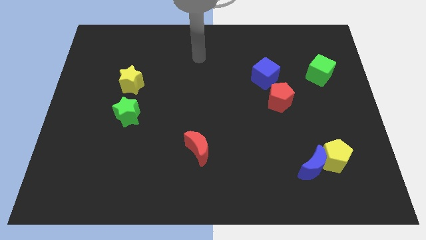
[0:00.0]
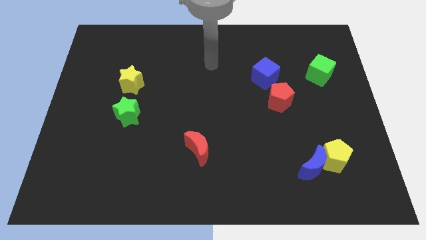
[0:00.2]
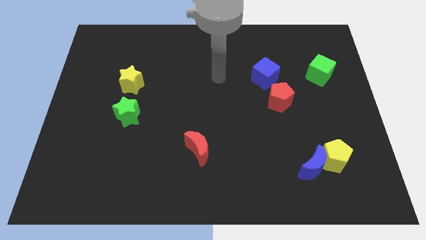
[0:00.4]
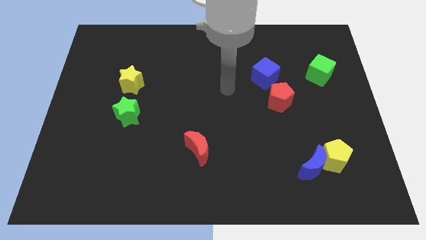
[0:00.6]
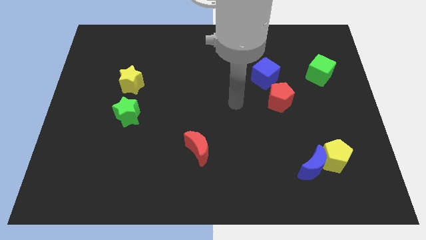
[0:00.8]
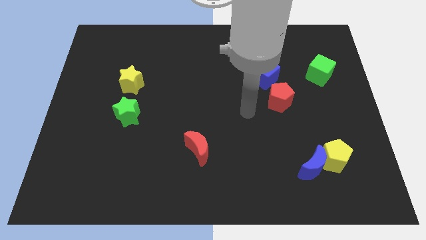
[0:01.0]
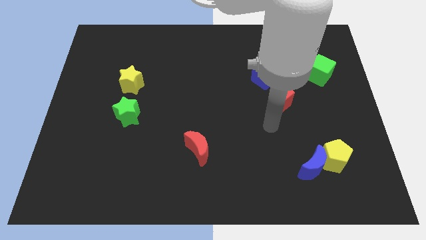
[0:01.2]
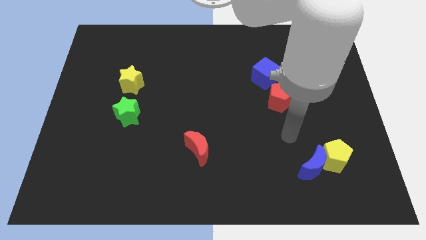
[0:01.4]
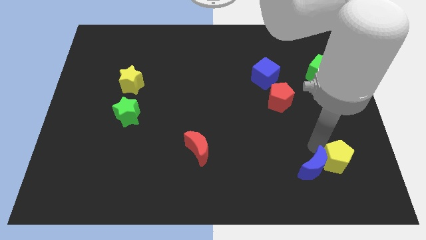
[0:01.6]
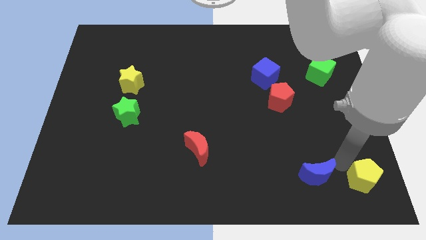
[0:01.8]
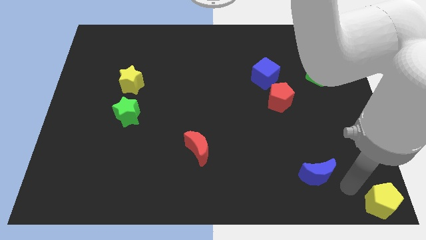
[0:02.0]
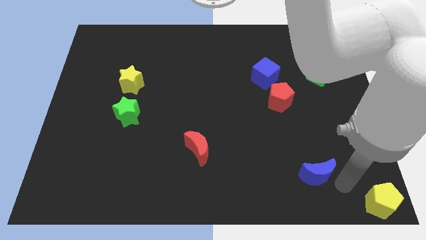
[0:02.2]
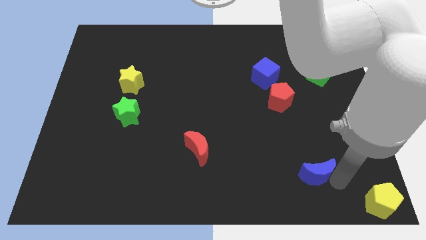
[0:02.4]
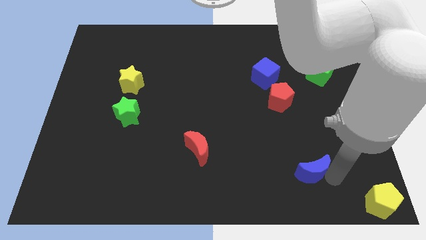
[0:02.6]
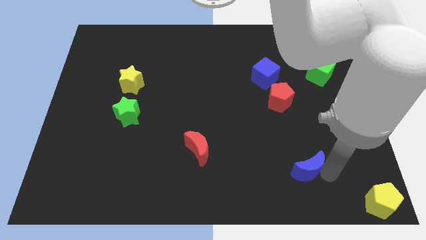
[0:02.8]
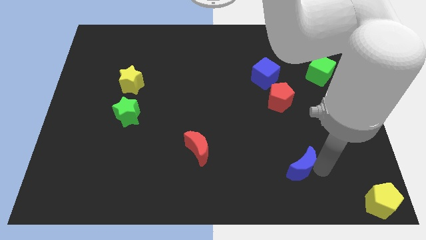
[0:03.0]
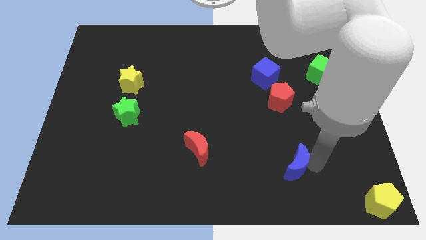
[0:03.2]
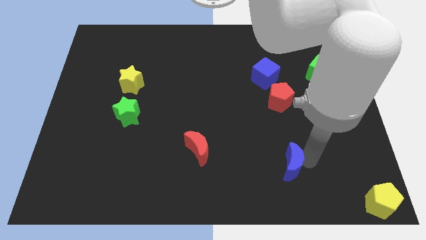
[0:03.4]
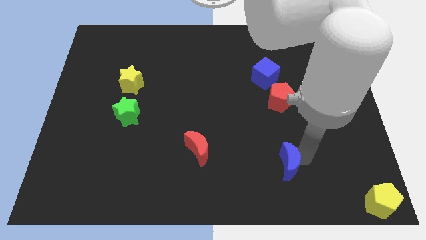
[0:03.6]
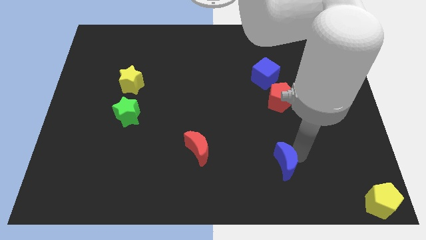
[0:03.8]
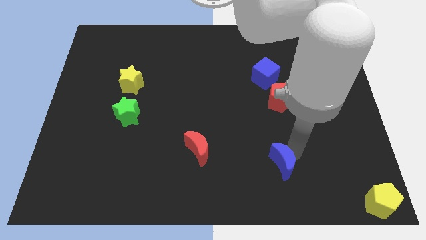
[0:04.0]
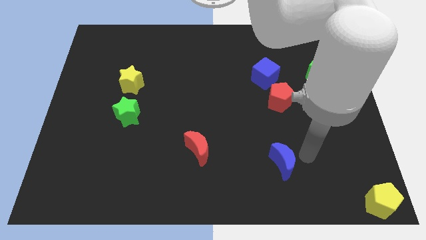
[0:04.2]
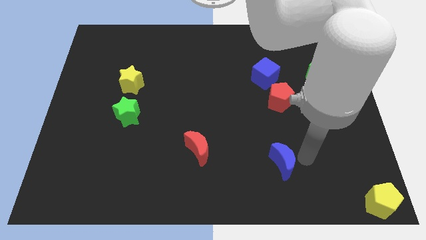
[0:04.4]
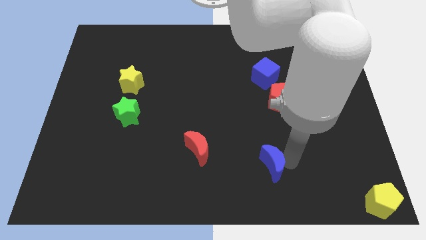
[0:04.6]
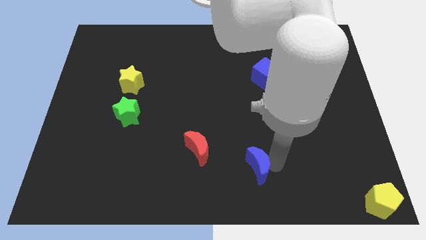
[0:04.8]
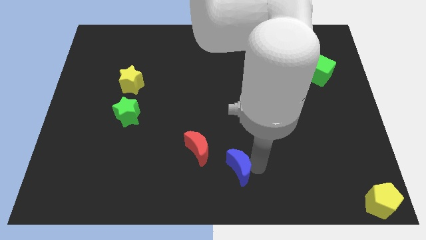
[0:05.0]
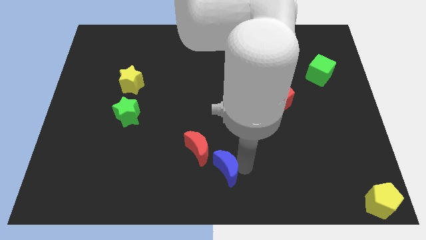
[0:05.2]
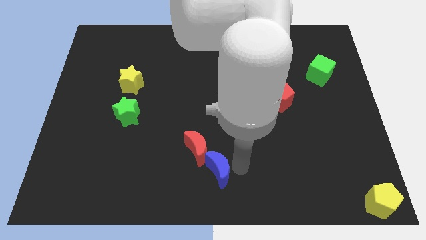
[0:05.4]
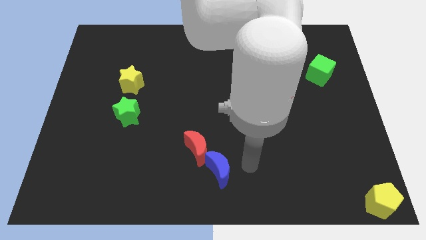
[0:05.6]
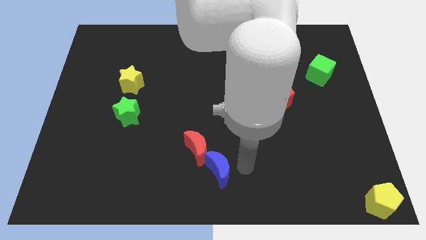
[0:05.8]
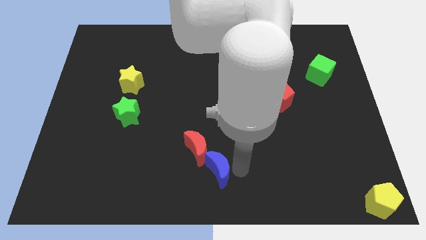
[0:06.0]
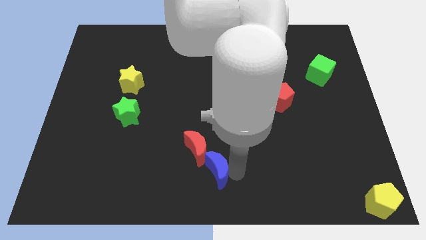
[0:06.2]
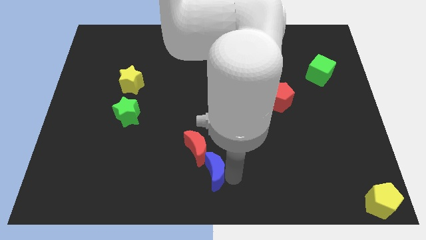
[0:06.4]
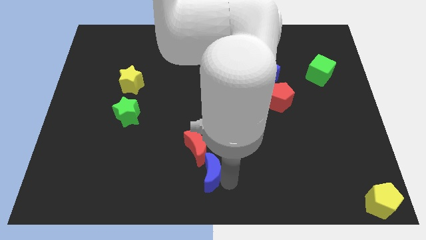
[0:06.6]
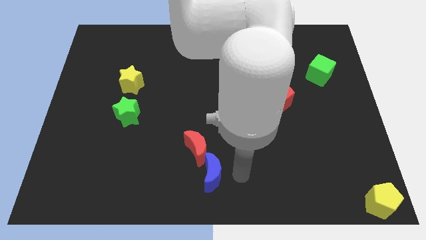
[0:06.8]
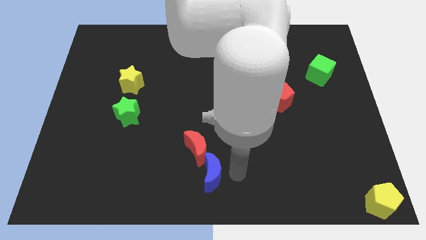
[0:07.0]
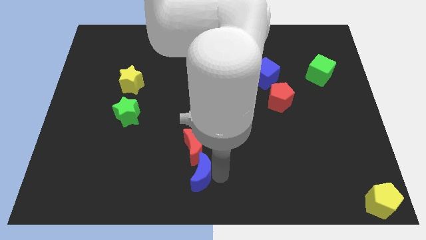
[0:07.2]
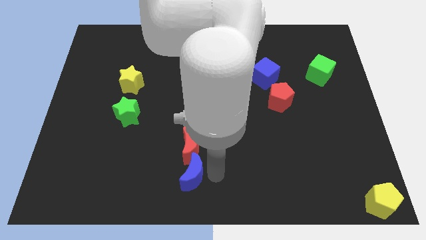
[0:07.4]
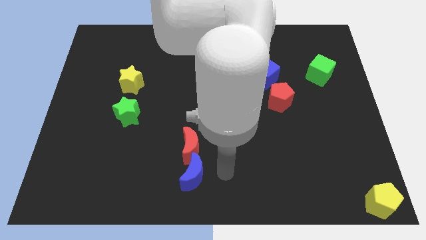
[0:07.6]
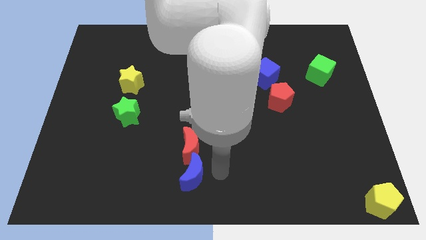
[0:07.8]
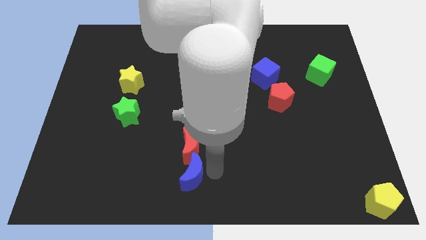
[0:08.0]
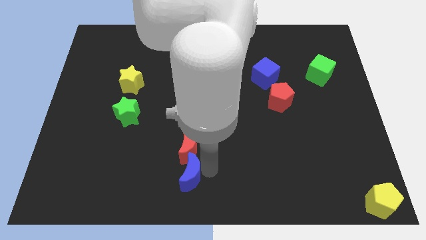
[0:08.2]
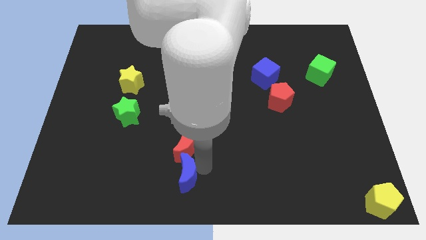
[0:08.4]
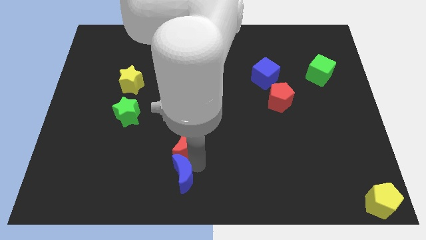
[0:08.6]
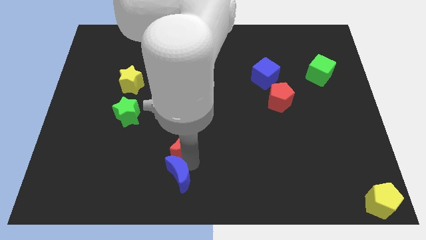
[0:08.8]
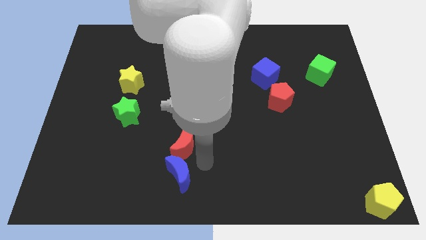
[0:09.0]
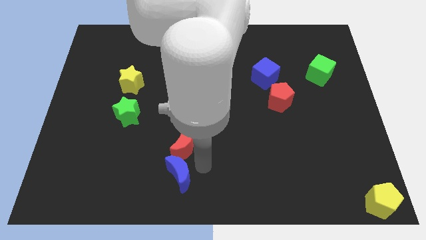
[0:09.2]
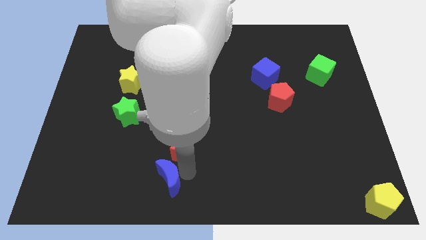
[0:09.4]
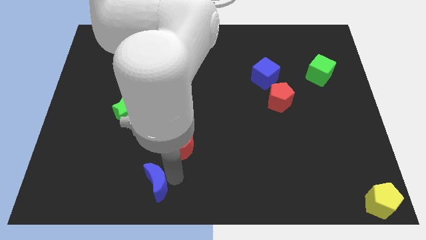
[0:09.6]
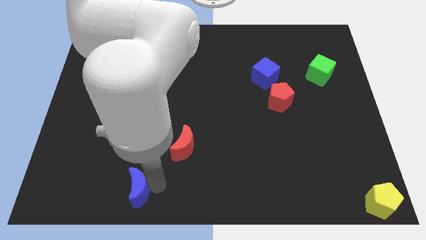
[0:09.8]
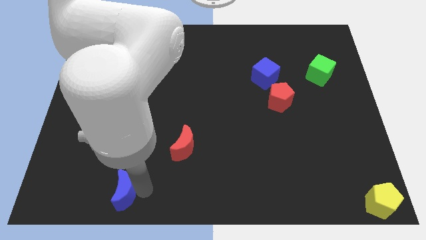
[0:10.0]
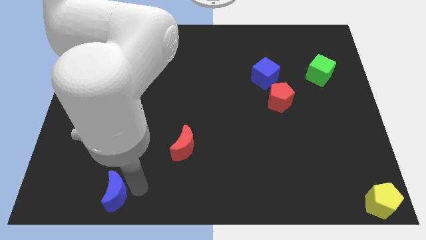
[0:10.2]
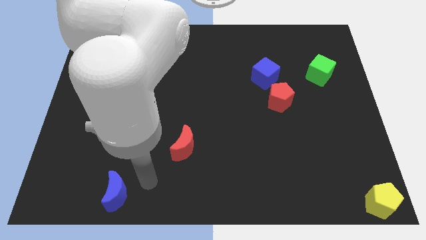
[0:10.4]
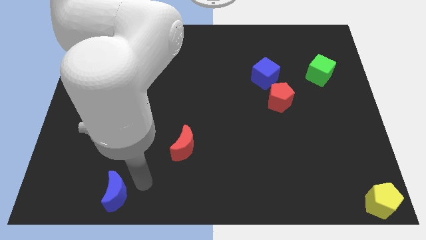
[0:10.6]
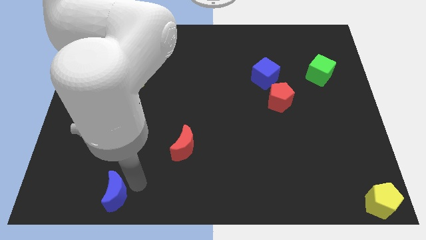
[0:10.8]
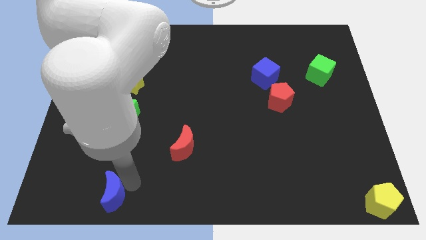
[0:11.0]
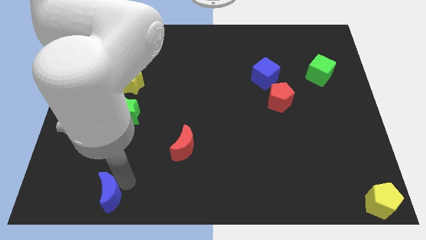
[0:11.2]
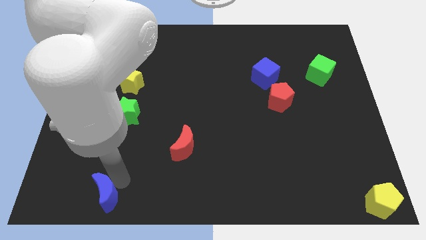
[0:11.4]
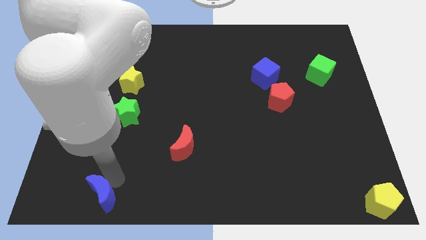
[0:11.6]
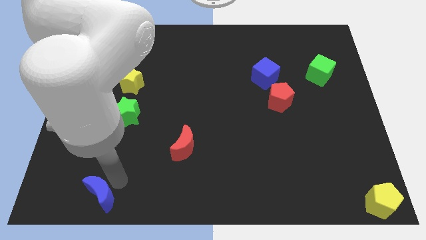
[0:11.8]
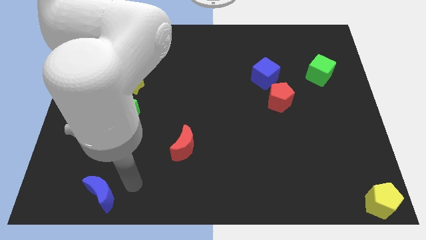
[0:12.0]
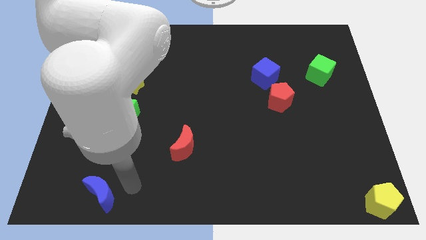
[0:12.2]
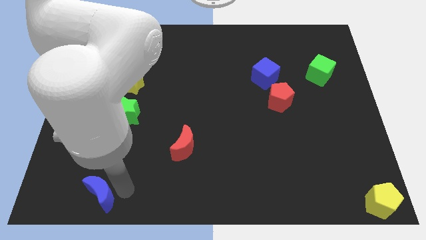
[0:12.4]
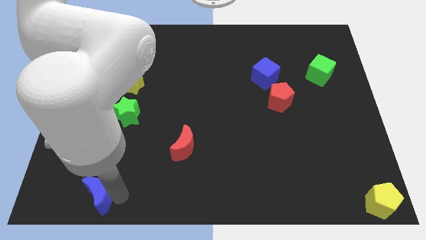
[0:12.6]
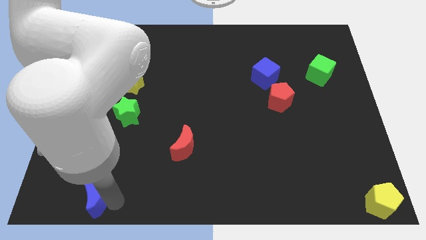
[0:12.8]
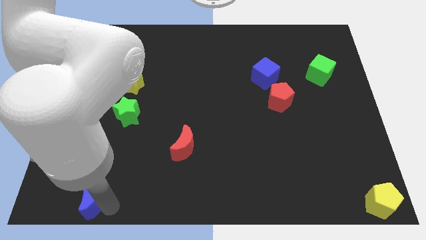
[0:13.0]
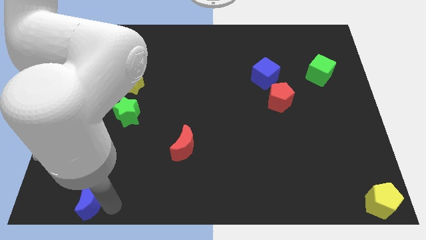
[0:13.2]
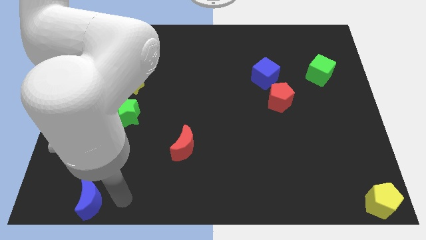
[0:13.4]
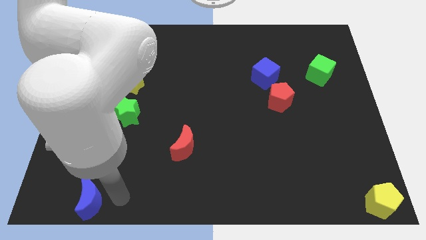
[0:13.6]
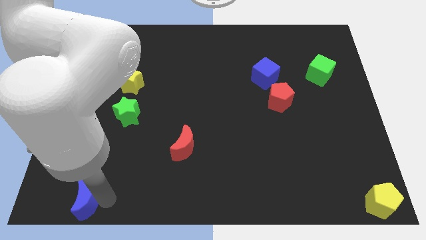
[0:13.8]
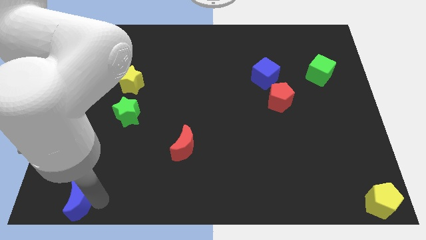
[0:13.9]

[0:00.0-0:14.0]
put the blue moon to the bottom left

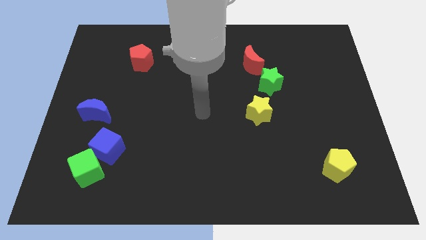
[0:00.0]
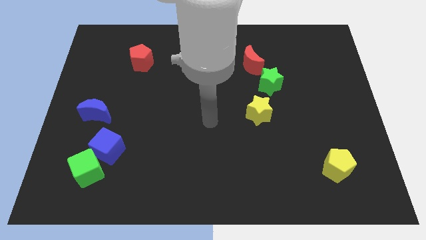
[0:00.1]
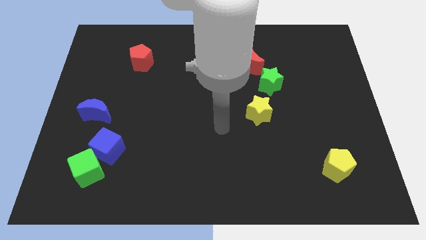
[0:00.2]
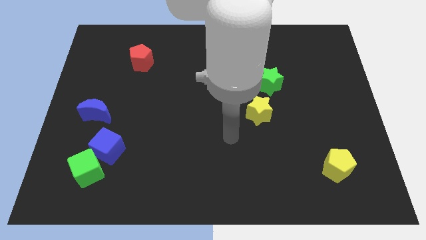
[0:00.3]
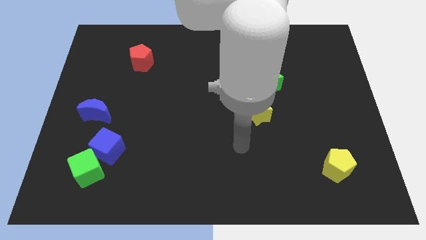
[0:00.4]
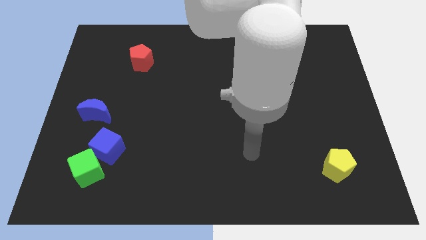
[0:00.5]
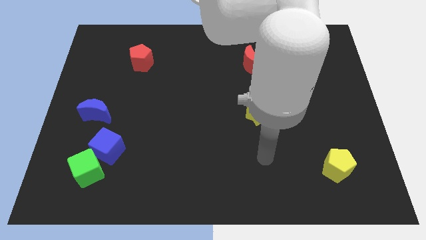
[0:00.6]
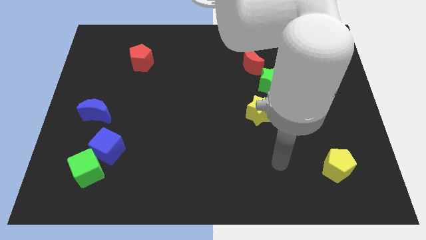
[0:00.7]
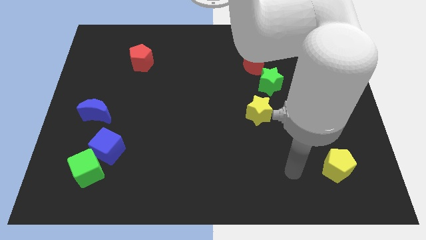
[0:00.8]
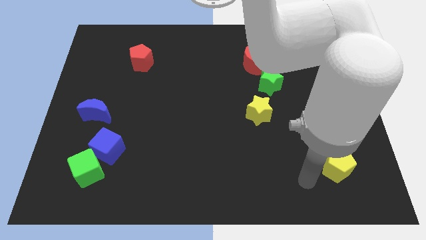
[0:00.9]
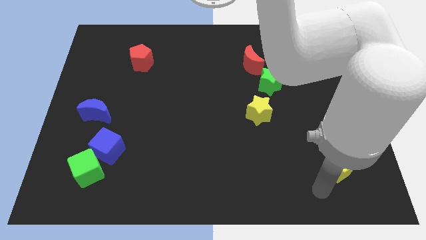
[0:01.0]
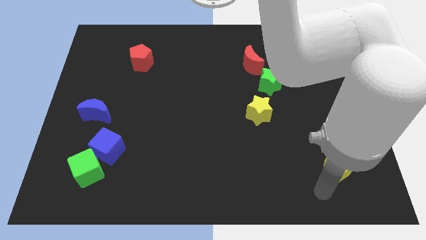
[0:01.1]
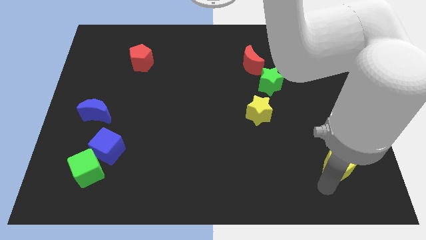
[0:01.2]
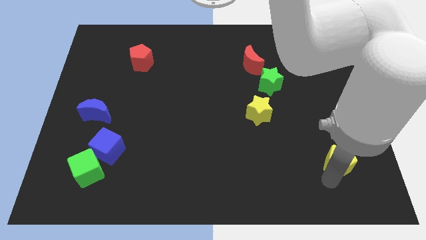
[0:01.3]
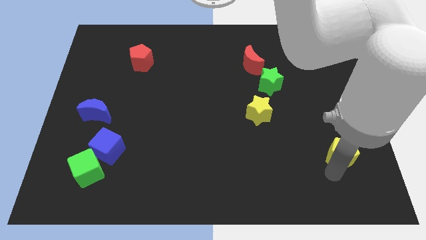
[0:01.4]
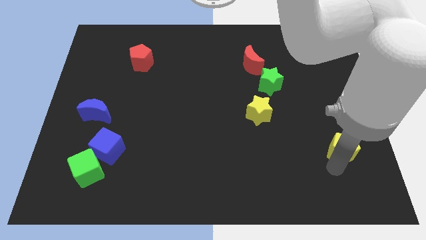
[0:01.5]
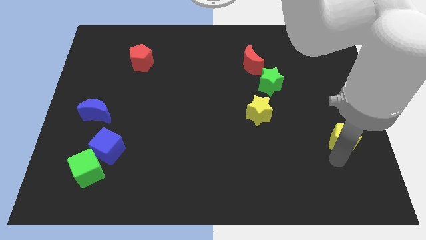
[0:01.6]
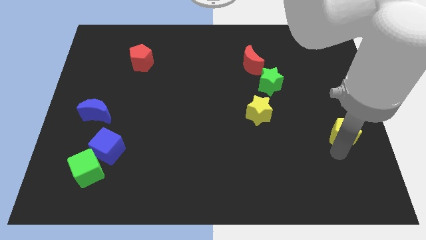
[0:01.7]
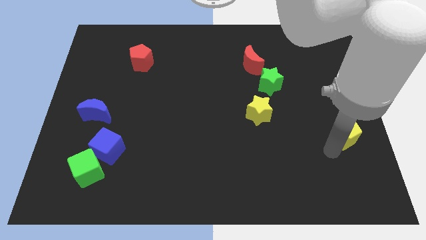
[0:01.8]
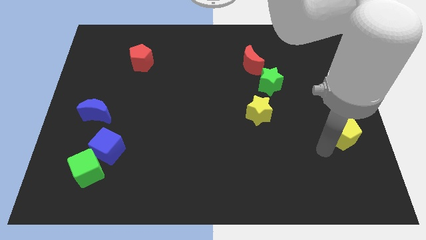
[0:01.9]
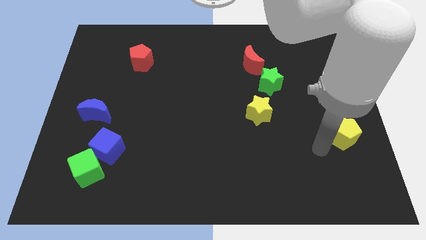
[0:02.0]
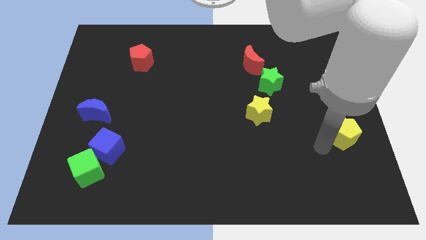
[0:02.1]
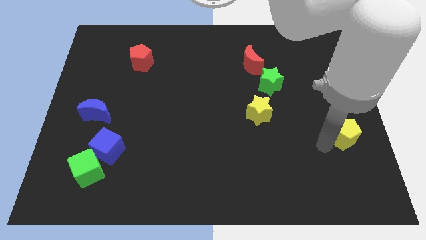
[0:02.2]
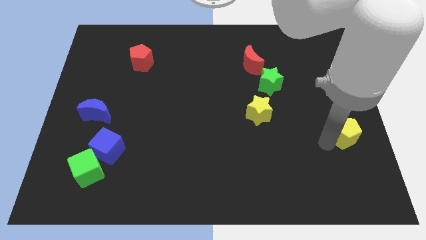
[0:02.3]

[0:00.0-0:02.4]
move the yellow pentagon to the right side
